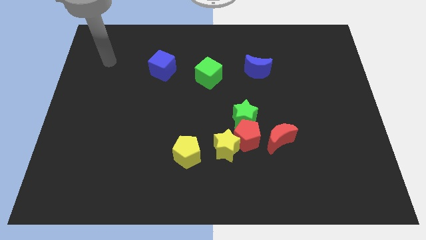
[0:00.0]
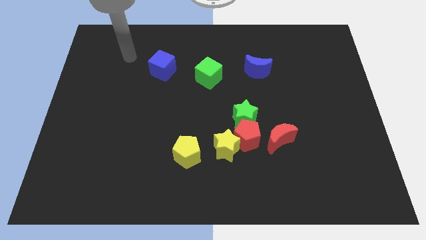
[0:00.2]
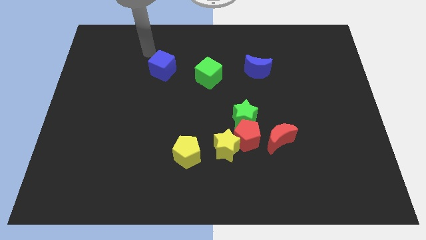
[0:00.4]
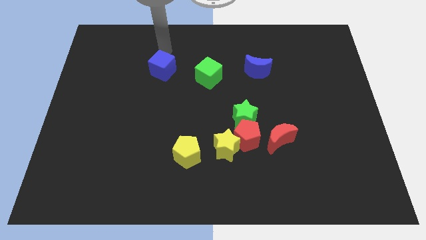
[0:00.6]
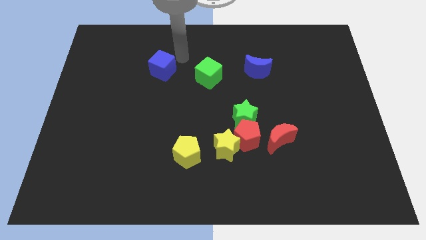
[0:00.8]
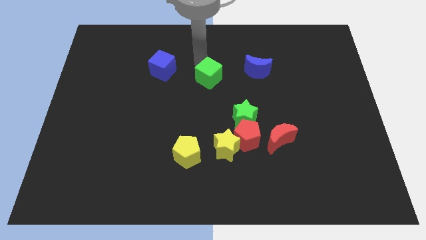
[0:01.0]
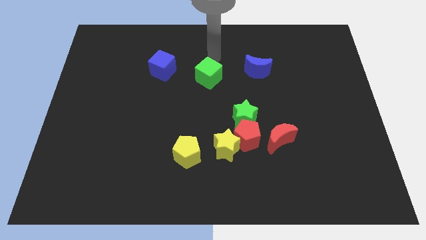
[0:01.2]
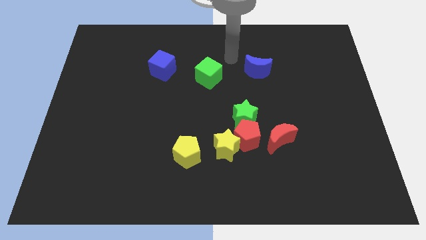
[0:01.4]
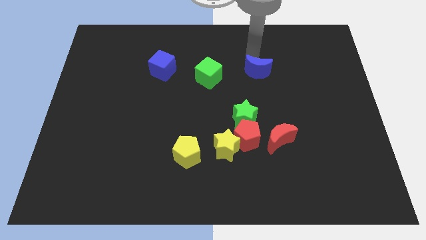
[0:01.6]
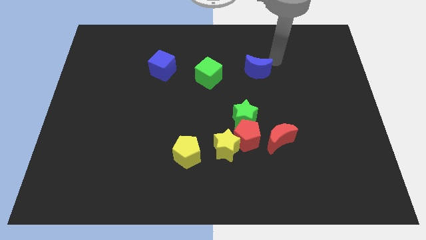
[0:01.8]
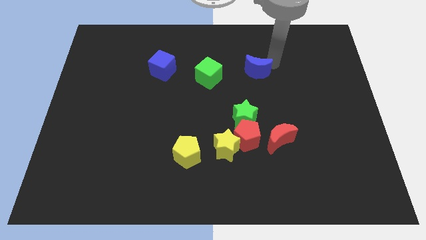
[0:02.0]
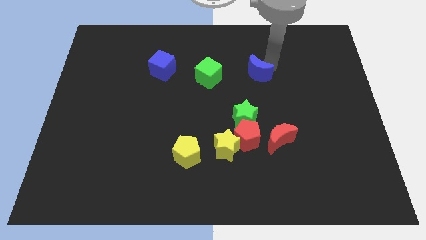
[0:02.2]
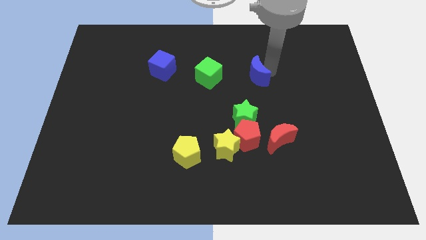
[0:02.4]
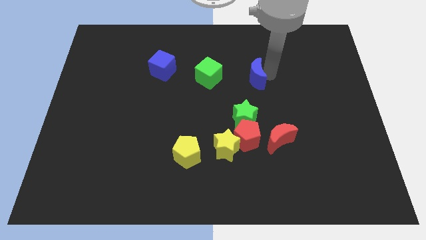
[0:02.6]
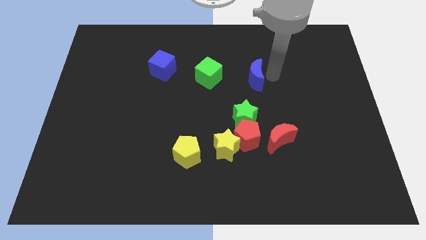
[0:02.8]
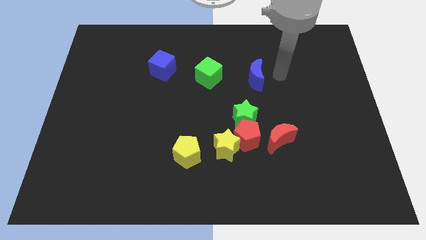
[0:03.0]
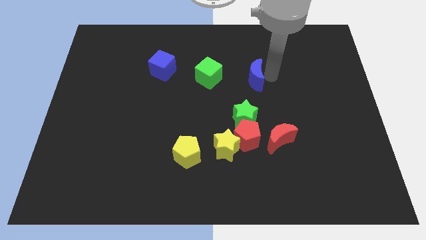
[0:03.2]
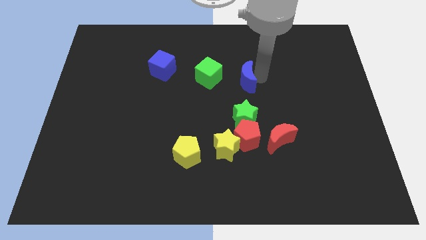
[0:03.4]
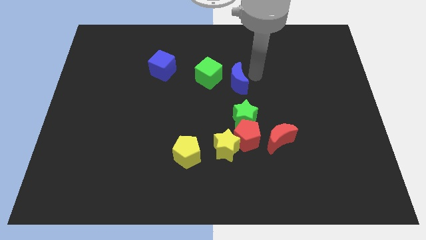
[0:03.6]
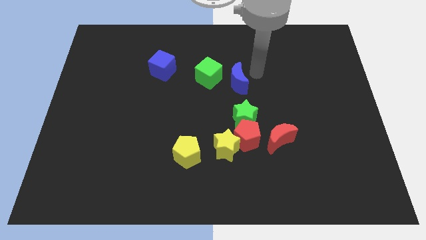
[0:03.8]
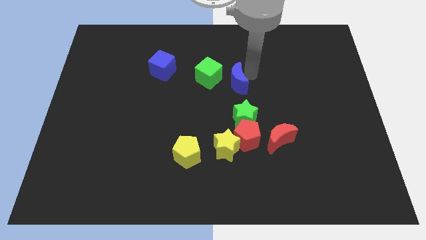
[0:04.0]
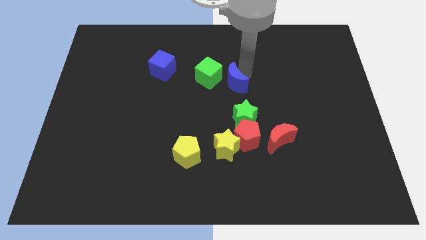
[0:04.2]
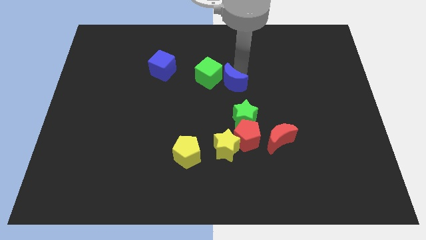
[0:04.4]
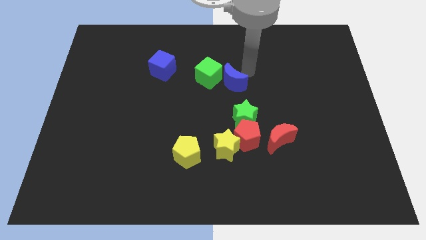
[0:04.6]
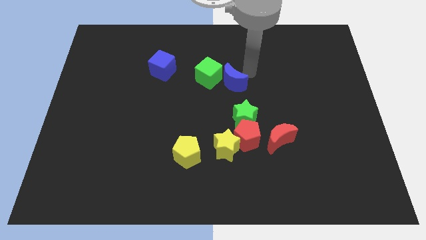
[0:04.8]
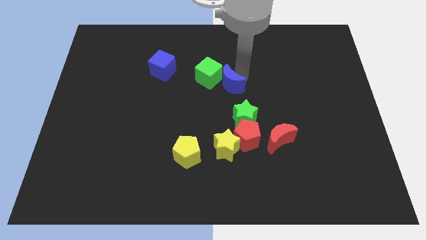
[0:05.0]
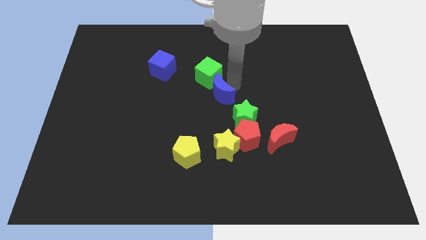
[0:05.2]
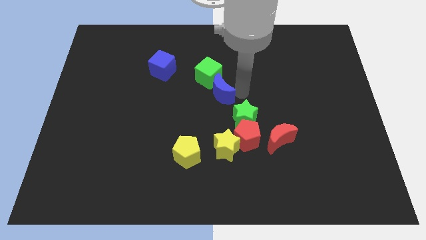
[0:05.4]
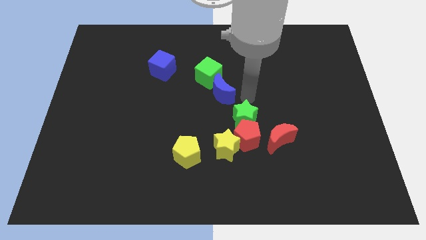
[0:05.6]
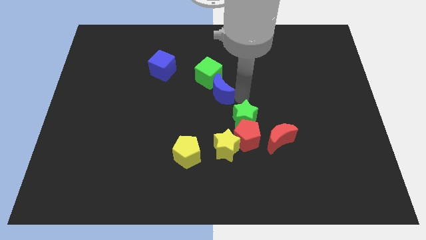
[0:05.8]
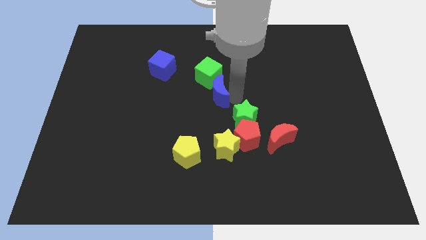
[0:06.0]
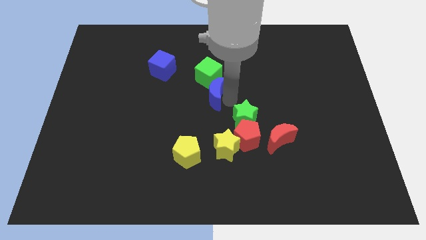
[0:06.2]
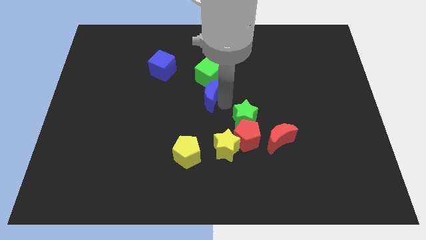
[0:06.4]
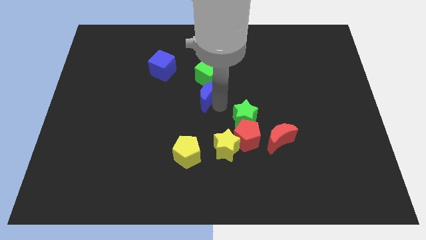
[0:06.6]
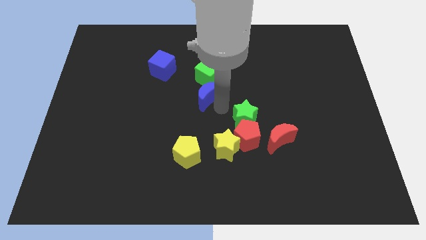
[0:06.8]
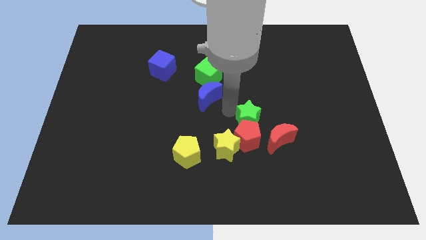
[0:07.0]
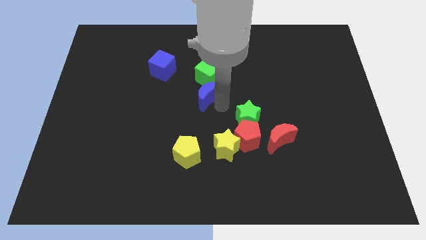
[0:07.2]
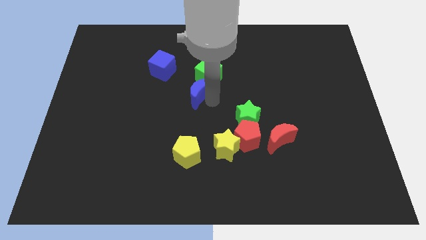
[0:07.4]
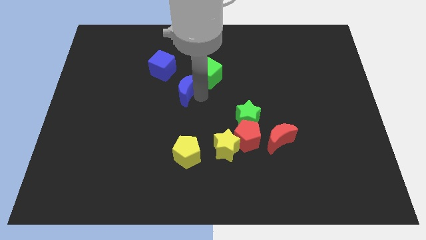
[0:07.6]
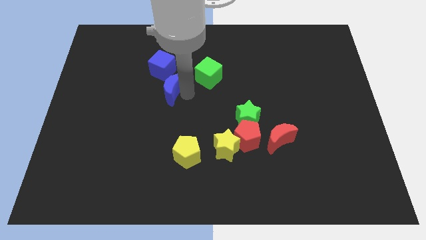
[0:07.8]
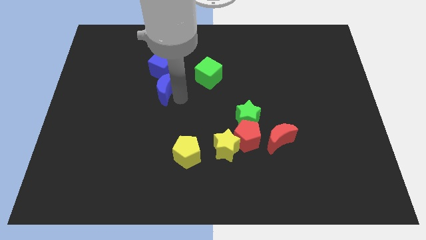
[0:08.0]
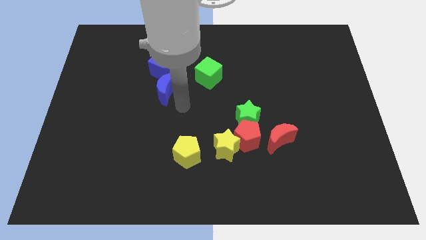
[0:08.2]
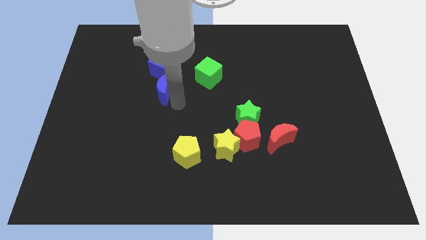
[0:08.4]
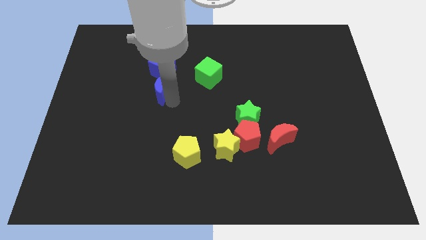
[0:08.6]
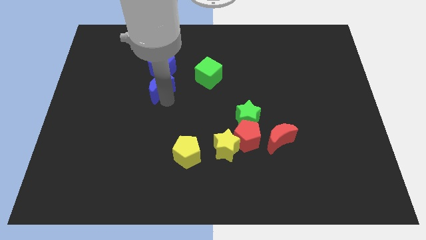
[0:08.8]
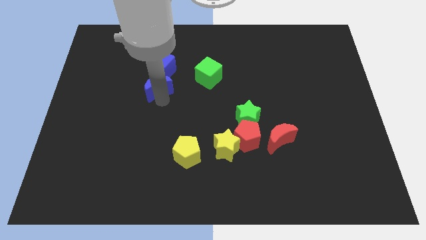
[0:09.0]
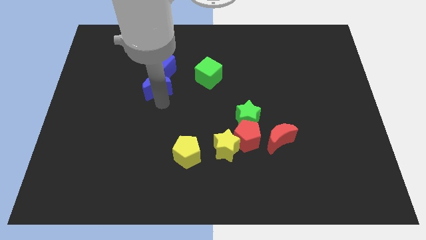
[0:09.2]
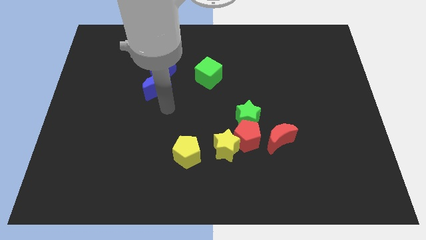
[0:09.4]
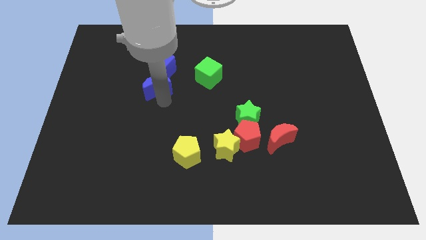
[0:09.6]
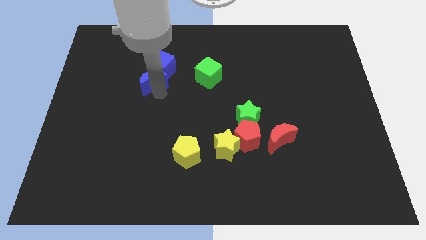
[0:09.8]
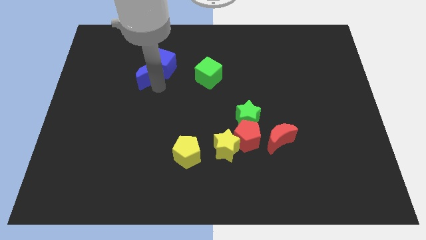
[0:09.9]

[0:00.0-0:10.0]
put the blue moon just left of the blue cube

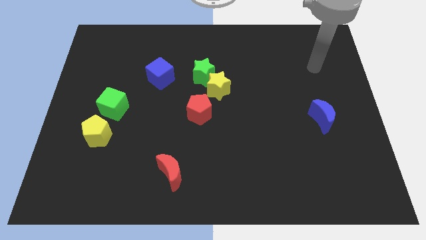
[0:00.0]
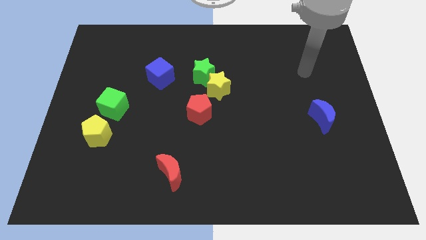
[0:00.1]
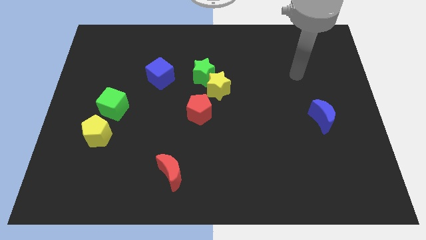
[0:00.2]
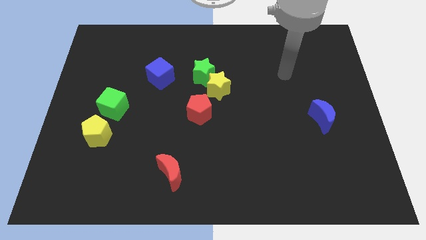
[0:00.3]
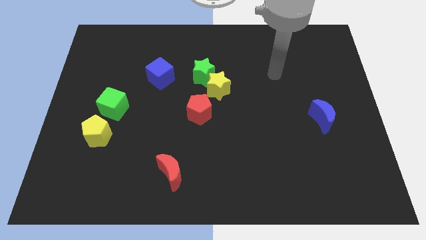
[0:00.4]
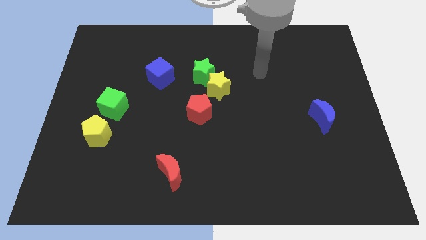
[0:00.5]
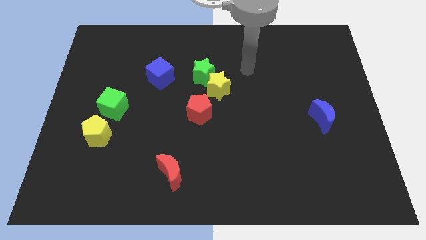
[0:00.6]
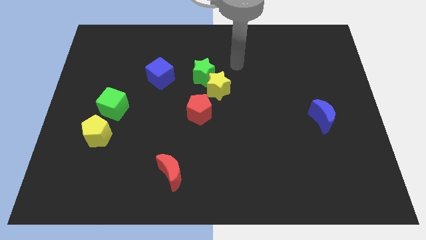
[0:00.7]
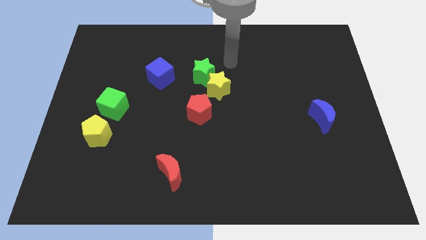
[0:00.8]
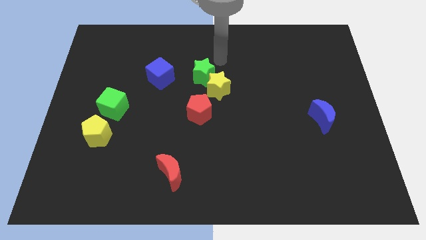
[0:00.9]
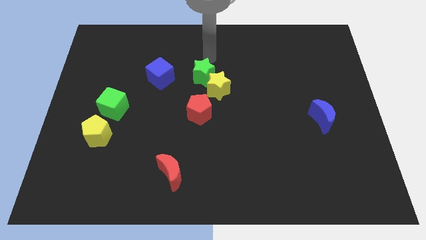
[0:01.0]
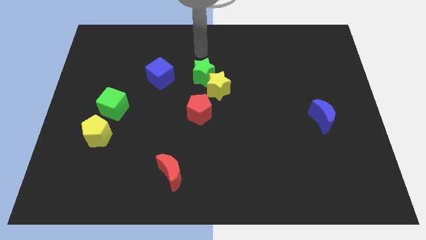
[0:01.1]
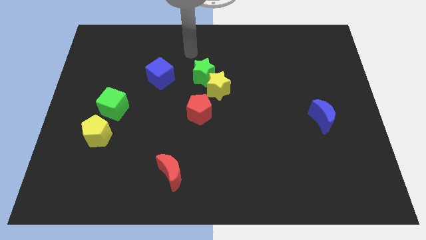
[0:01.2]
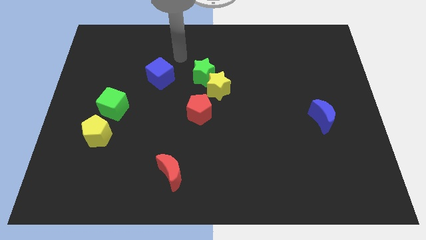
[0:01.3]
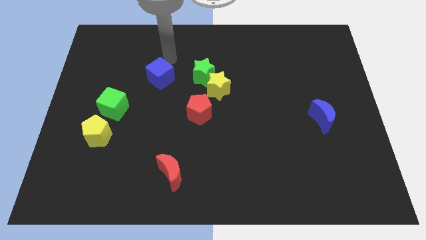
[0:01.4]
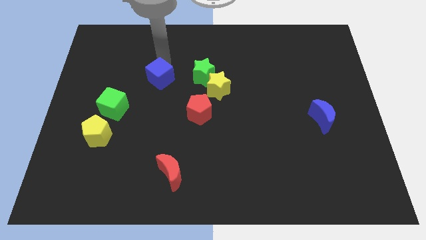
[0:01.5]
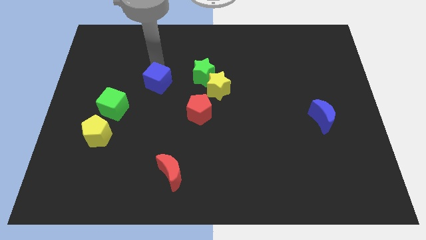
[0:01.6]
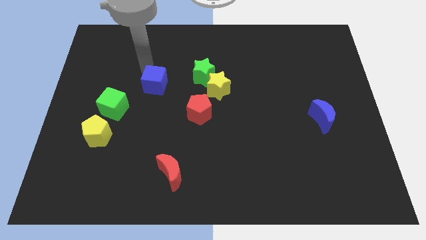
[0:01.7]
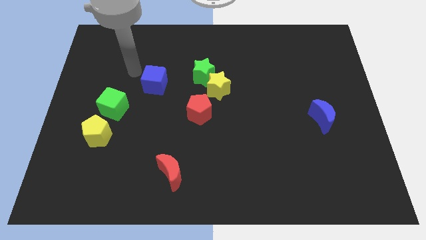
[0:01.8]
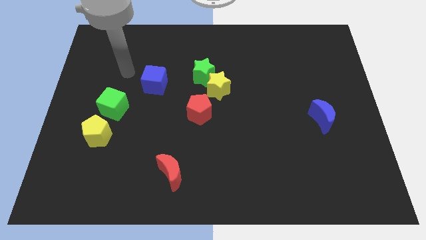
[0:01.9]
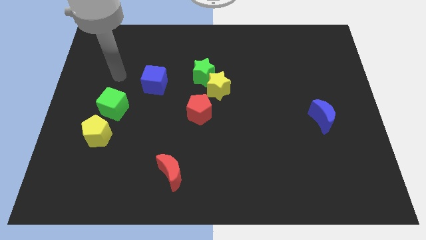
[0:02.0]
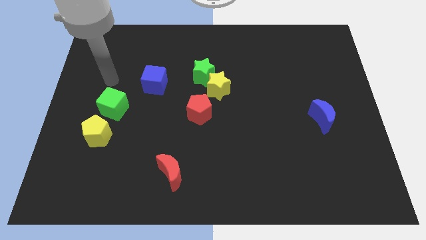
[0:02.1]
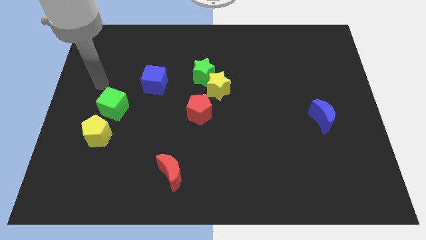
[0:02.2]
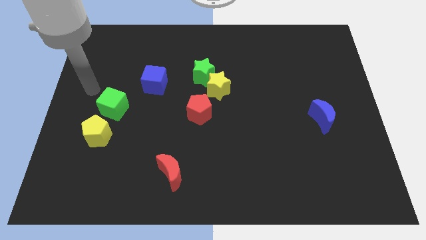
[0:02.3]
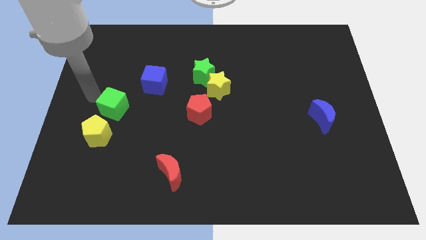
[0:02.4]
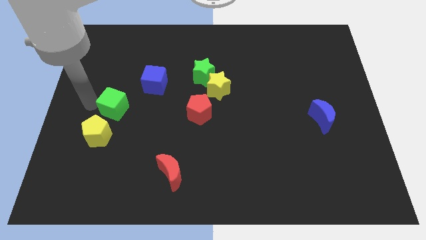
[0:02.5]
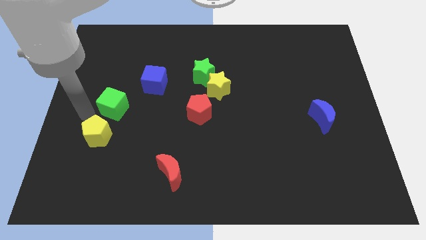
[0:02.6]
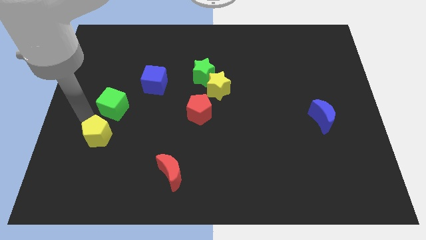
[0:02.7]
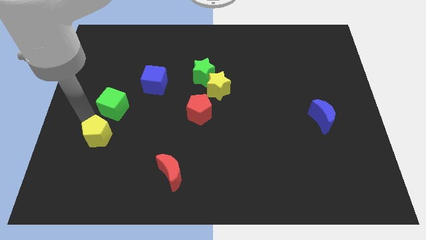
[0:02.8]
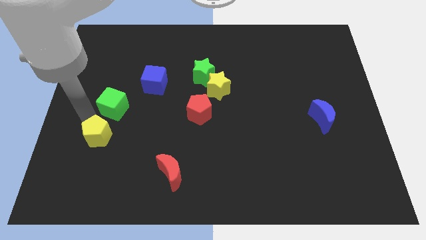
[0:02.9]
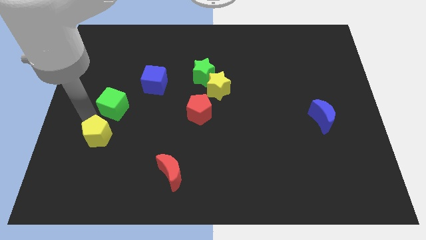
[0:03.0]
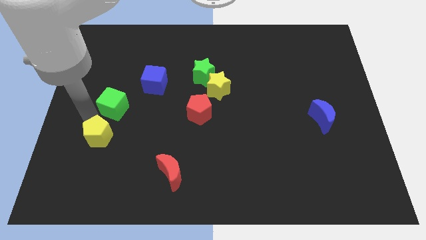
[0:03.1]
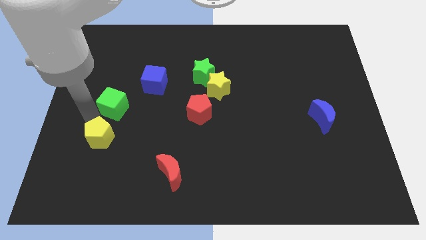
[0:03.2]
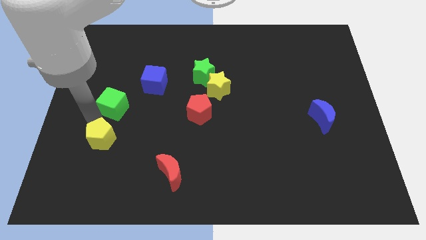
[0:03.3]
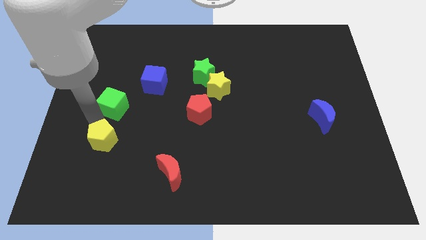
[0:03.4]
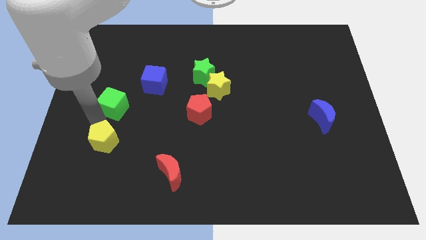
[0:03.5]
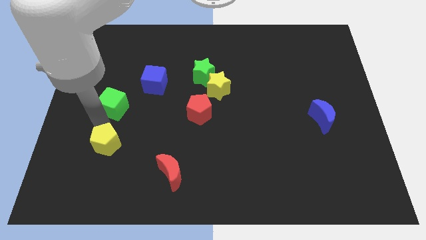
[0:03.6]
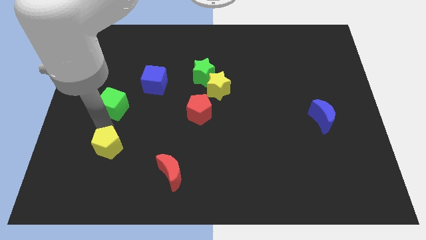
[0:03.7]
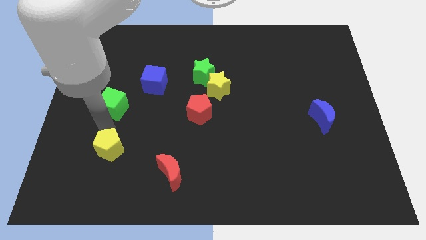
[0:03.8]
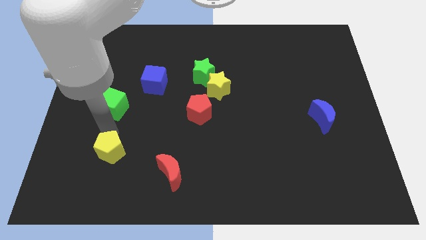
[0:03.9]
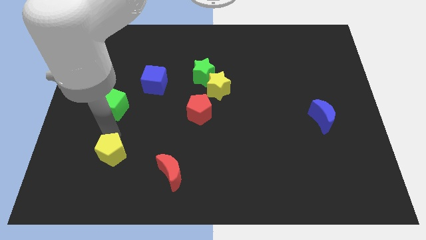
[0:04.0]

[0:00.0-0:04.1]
push the yellow pentagon to the left side of the red moon
